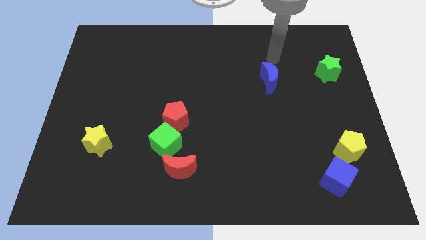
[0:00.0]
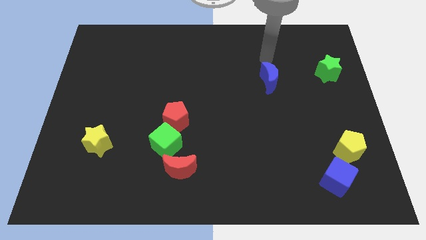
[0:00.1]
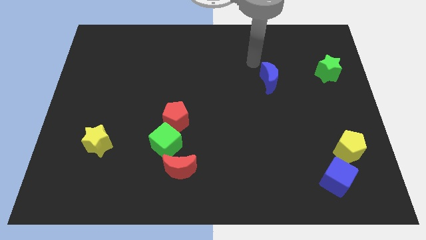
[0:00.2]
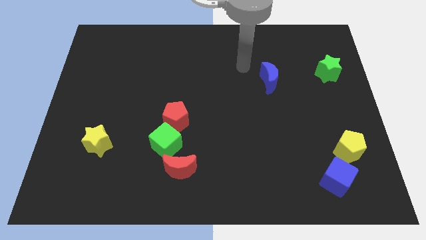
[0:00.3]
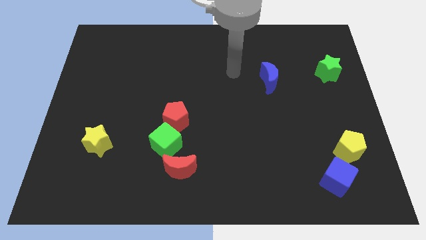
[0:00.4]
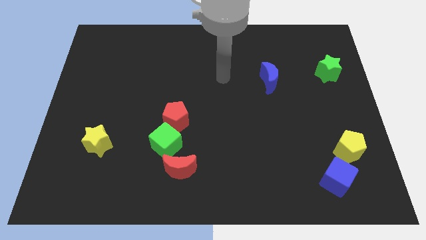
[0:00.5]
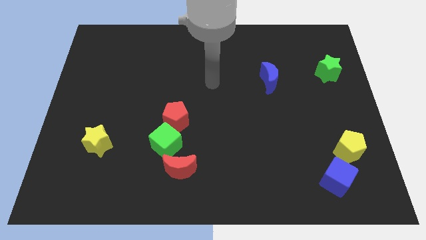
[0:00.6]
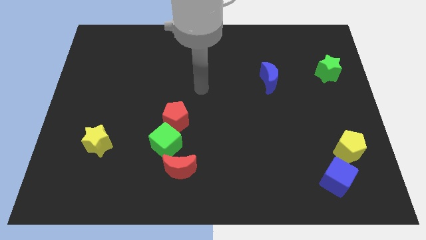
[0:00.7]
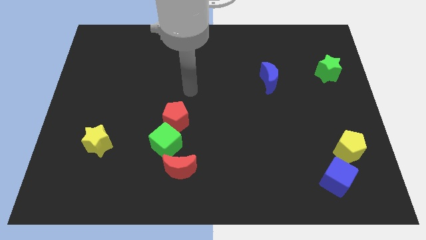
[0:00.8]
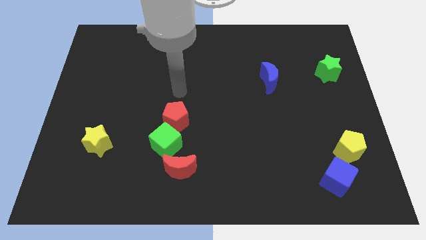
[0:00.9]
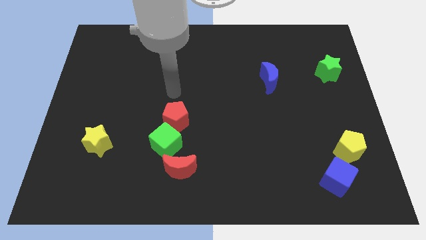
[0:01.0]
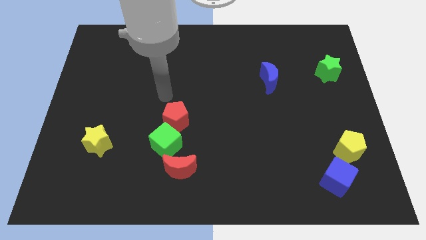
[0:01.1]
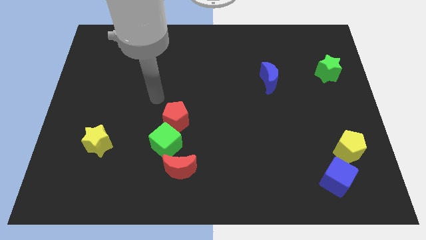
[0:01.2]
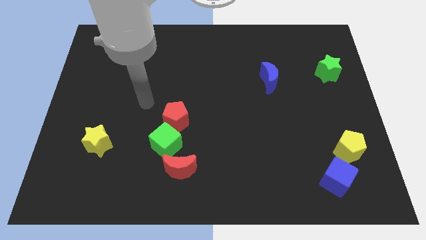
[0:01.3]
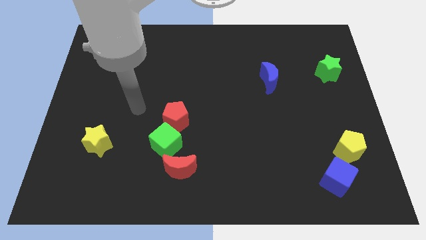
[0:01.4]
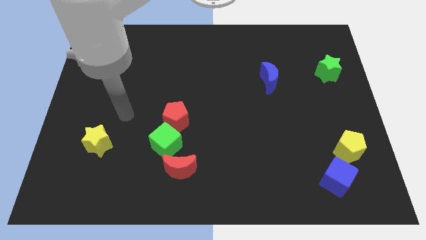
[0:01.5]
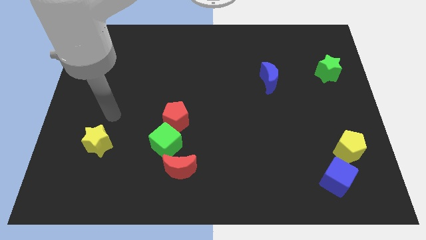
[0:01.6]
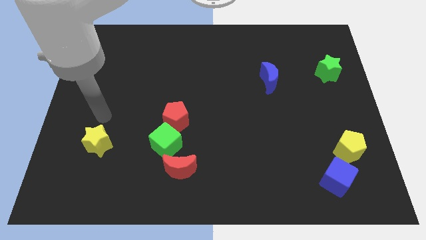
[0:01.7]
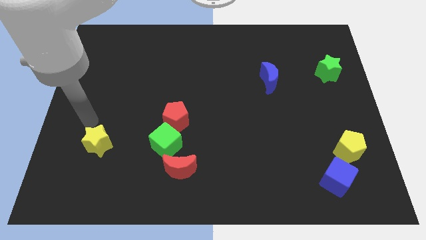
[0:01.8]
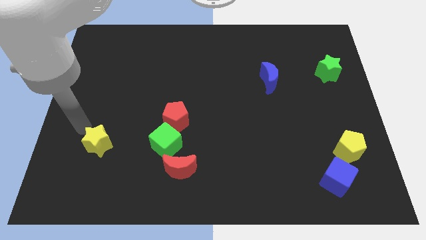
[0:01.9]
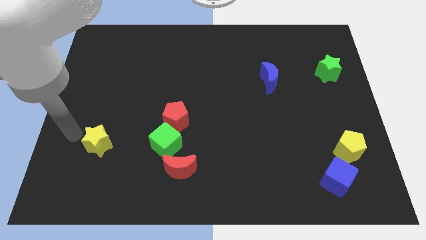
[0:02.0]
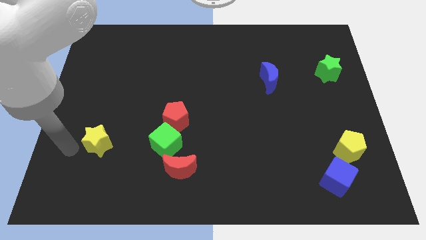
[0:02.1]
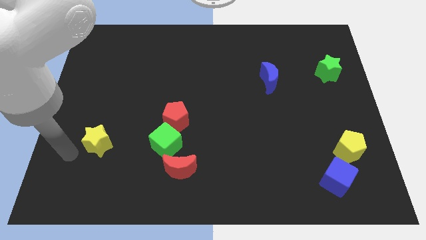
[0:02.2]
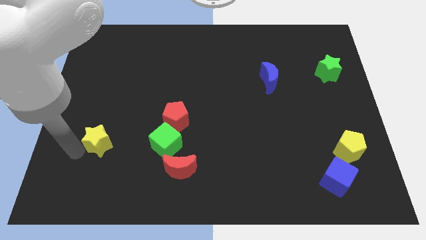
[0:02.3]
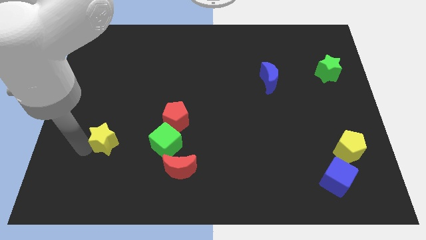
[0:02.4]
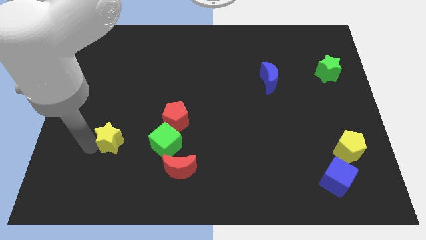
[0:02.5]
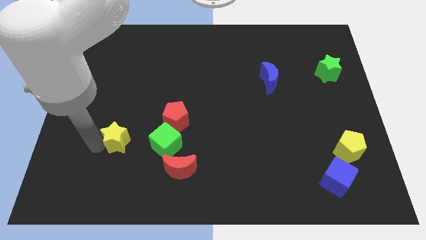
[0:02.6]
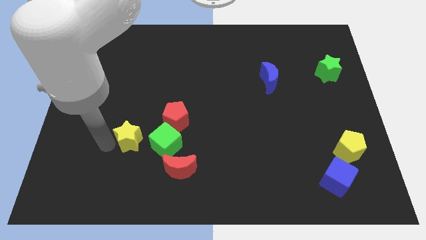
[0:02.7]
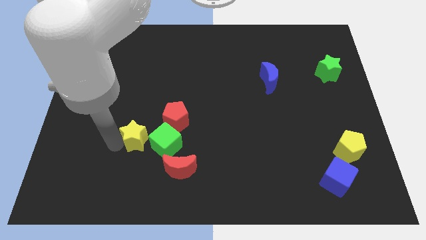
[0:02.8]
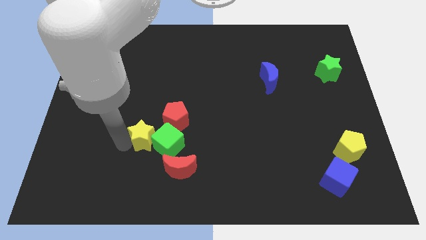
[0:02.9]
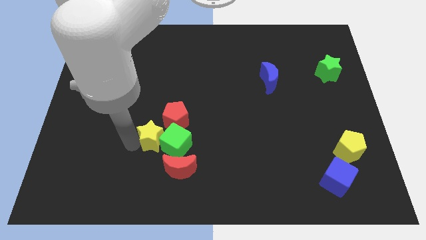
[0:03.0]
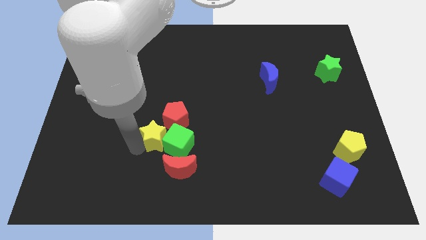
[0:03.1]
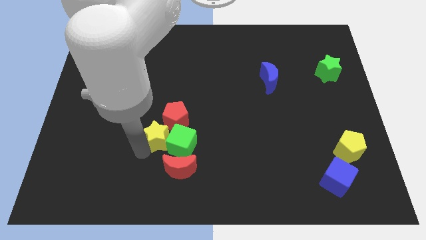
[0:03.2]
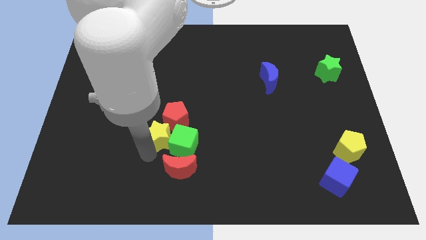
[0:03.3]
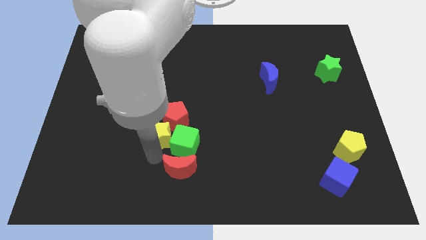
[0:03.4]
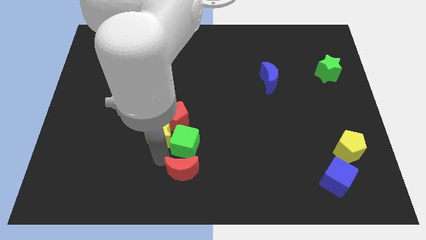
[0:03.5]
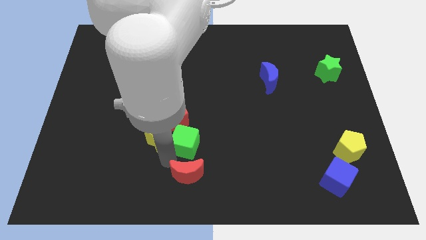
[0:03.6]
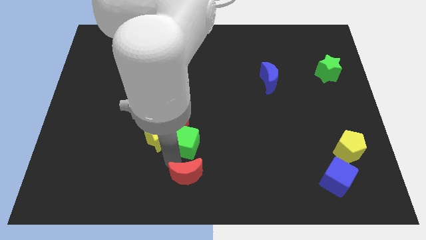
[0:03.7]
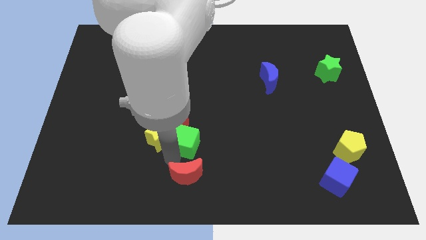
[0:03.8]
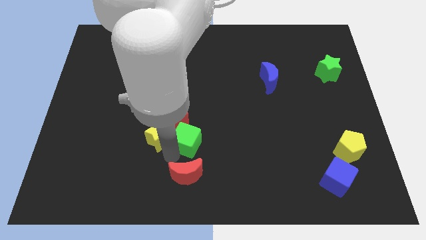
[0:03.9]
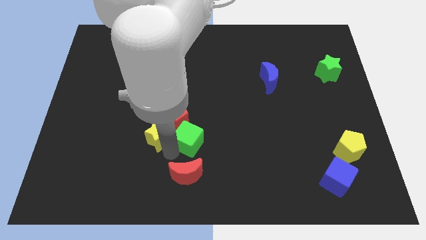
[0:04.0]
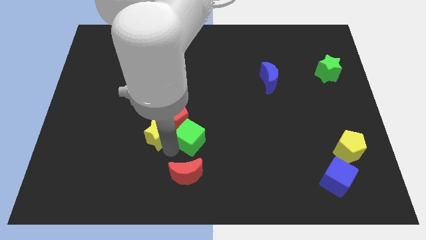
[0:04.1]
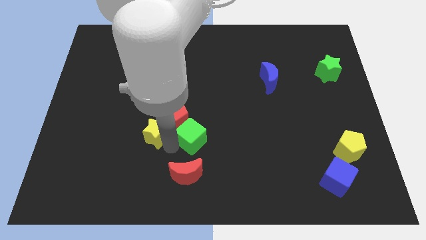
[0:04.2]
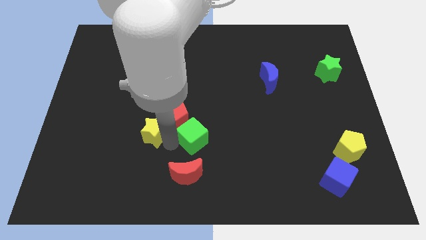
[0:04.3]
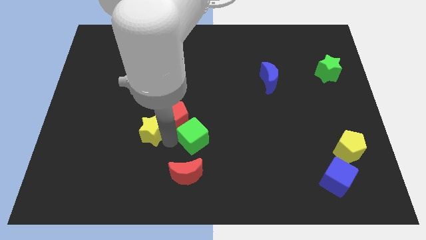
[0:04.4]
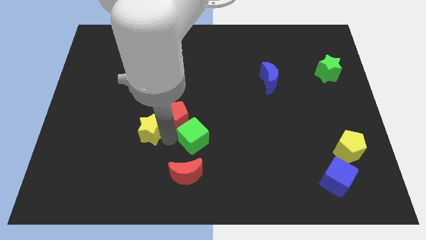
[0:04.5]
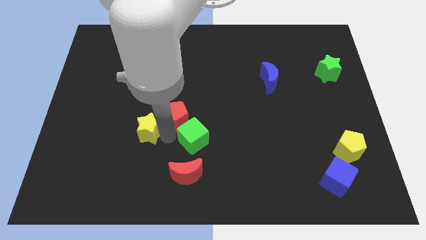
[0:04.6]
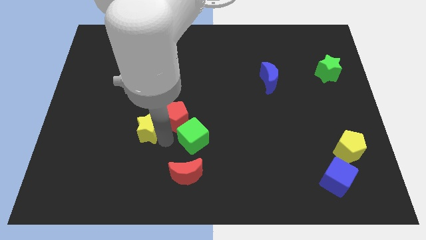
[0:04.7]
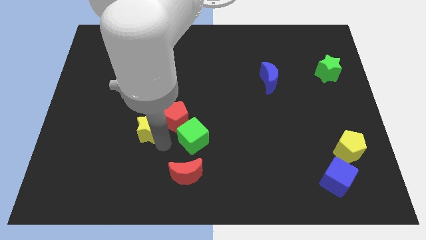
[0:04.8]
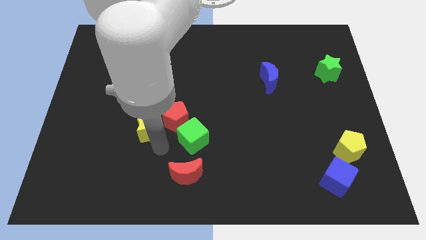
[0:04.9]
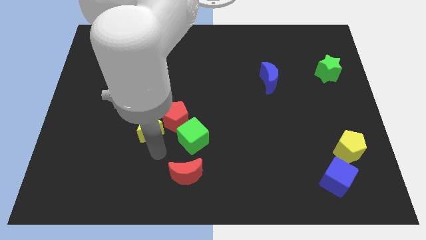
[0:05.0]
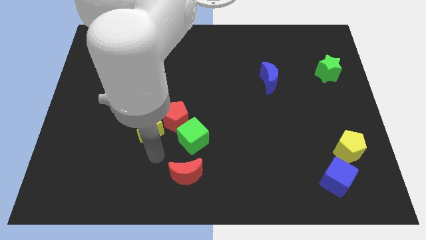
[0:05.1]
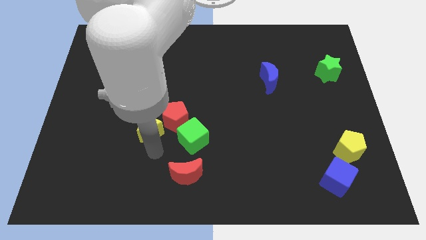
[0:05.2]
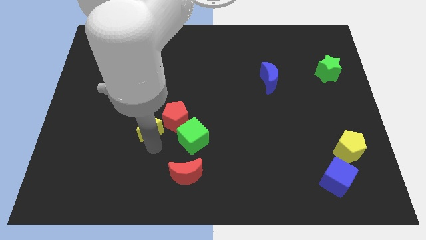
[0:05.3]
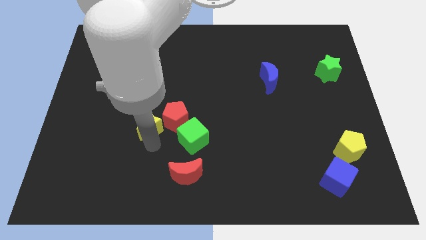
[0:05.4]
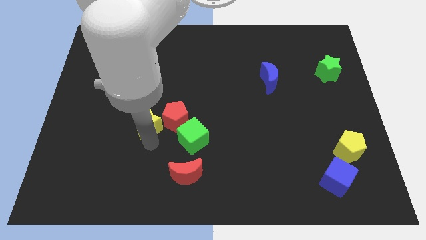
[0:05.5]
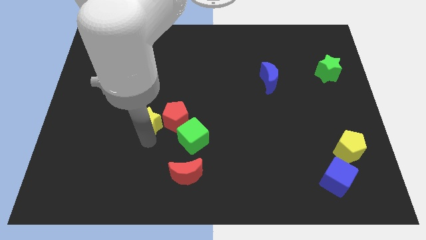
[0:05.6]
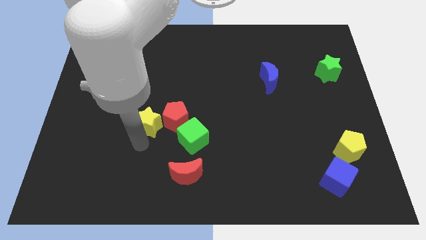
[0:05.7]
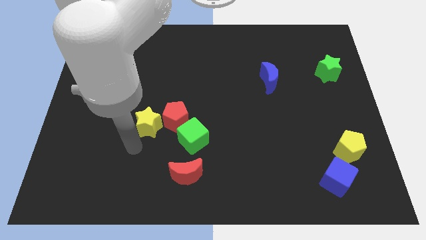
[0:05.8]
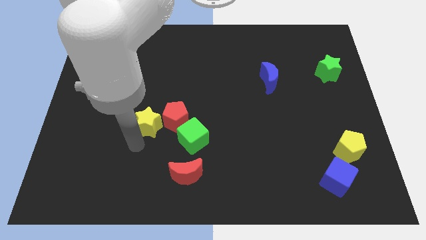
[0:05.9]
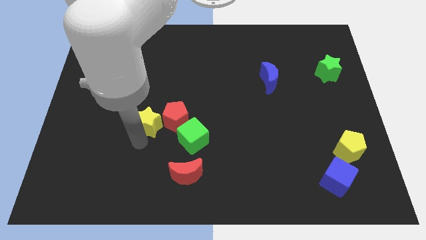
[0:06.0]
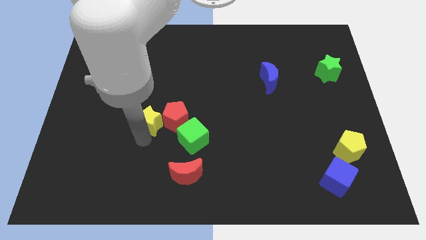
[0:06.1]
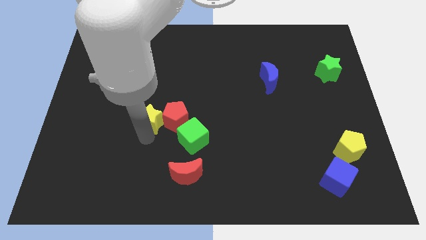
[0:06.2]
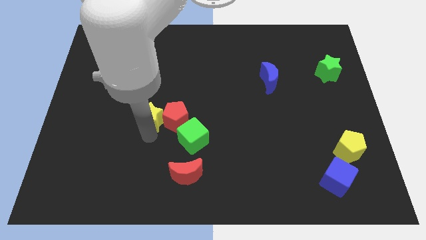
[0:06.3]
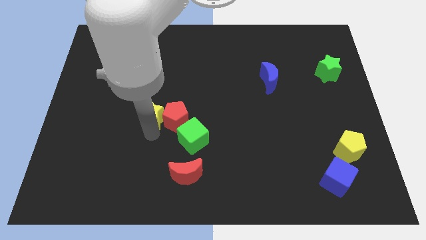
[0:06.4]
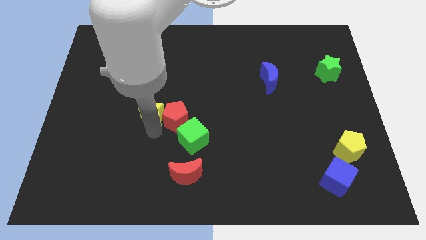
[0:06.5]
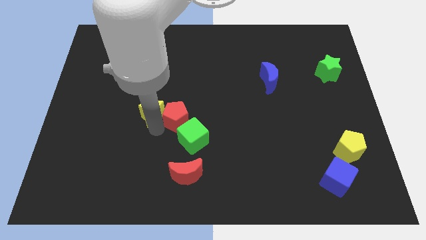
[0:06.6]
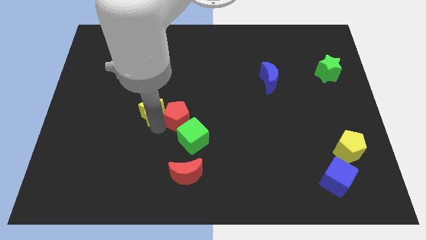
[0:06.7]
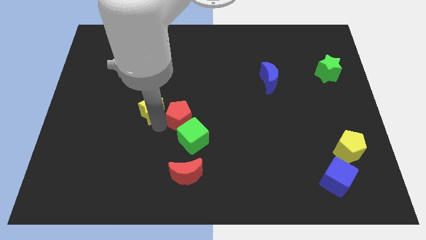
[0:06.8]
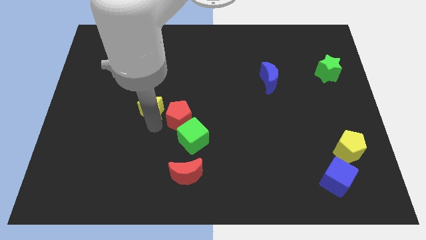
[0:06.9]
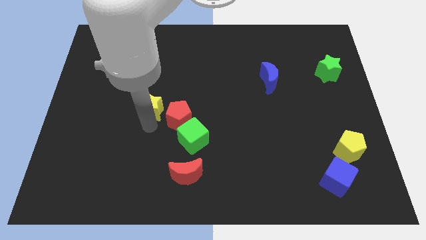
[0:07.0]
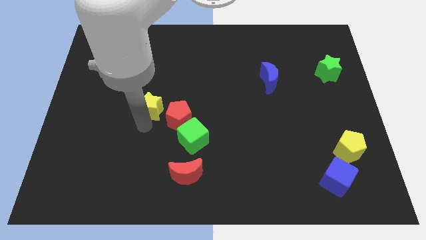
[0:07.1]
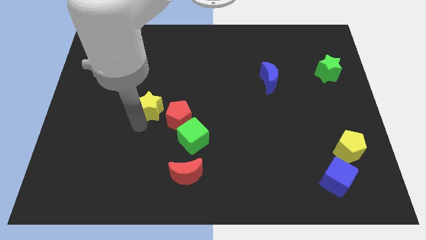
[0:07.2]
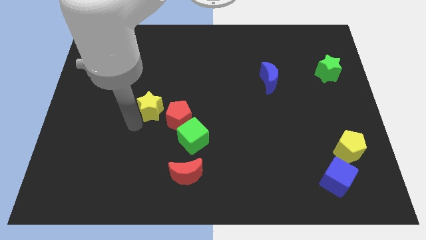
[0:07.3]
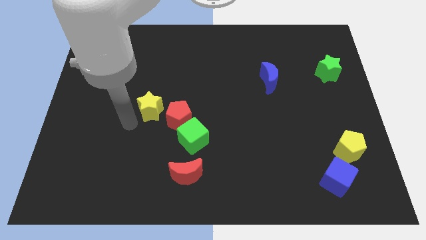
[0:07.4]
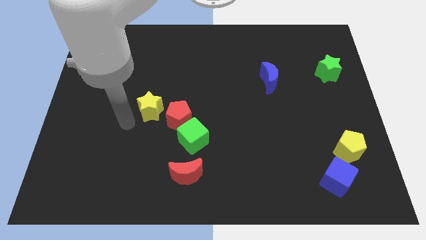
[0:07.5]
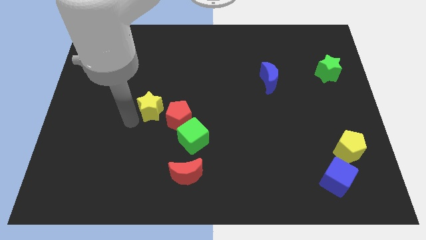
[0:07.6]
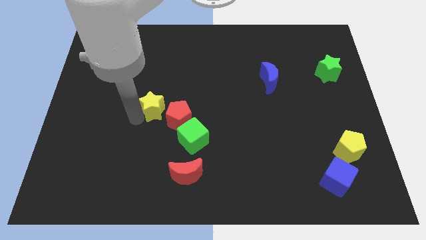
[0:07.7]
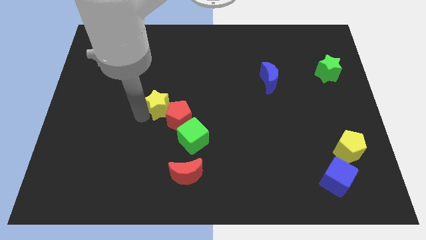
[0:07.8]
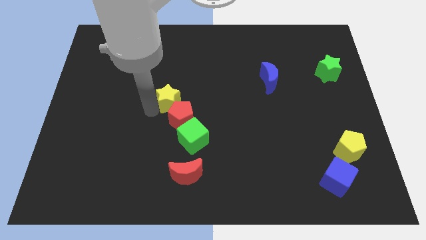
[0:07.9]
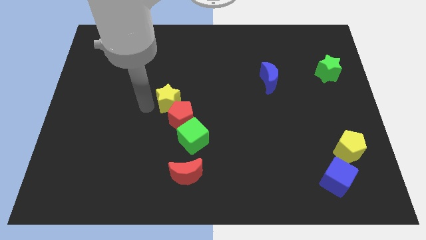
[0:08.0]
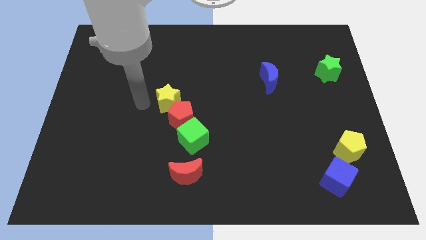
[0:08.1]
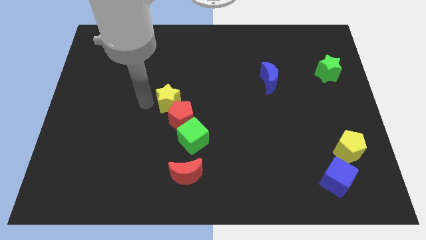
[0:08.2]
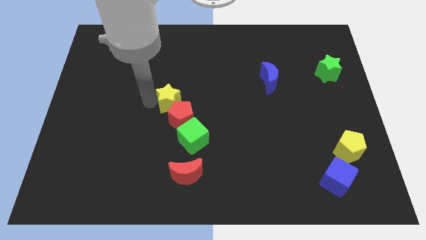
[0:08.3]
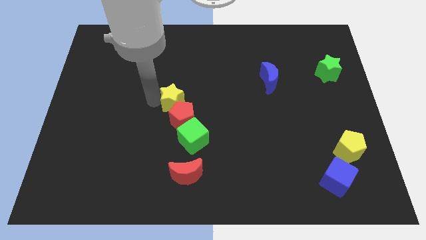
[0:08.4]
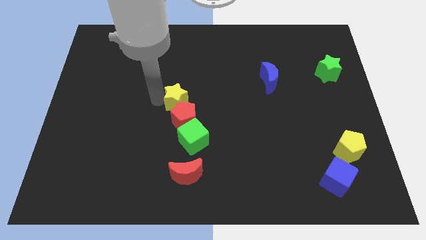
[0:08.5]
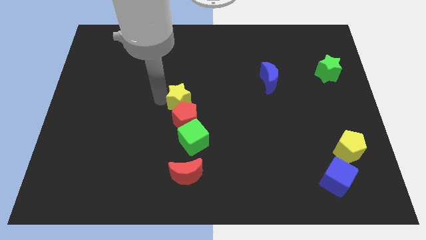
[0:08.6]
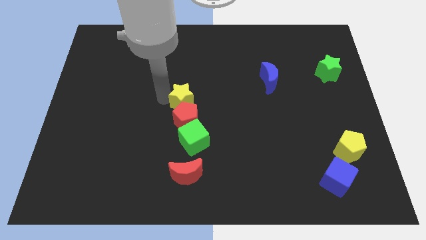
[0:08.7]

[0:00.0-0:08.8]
push the yellow star to the top right of the red pentagon
